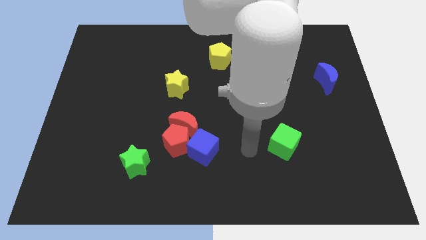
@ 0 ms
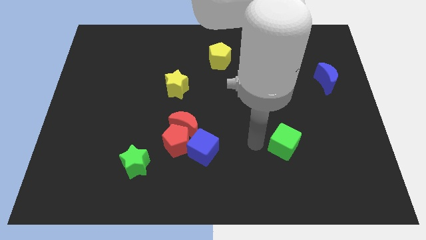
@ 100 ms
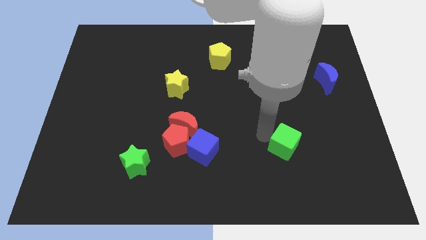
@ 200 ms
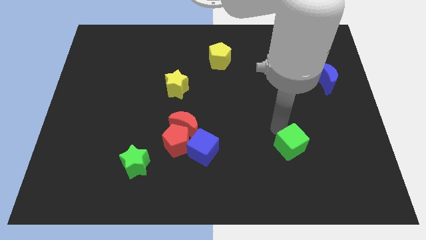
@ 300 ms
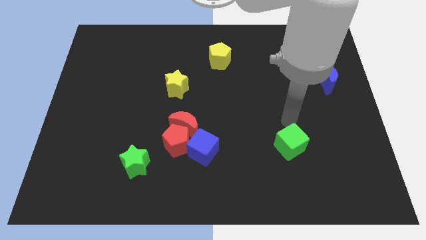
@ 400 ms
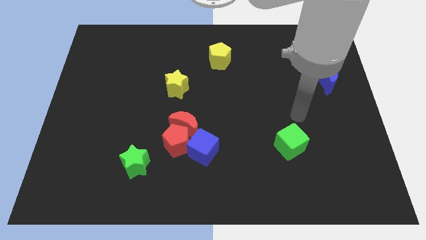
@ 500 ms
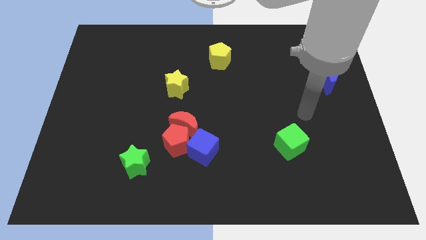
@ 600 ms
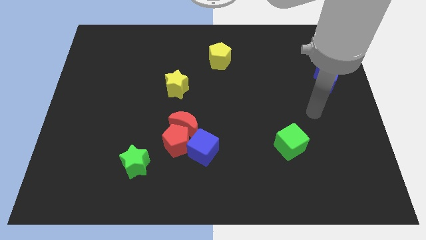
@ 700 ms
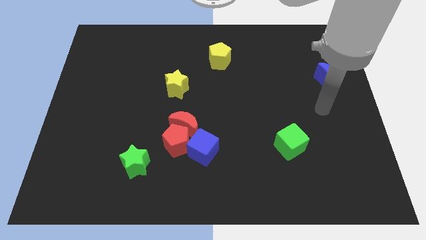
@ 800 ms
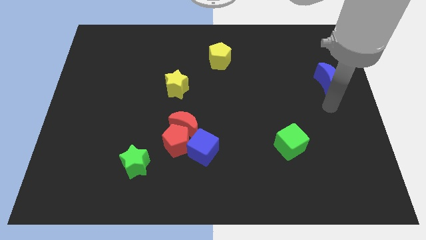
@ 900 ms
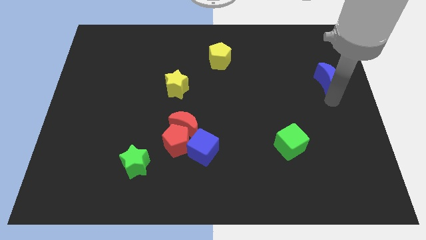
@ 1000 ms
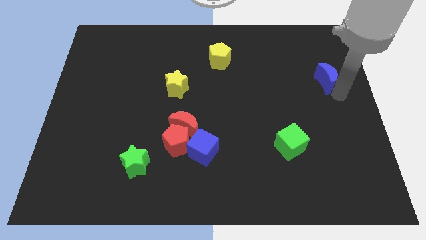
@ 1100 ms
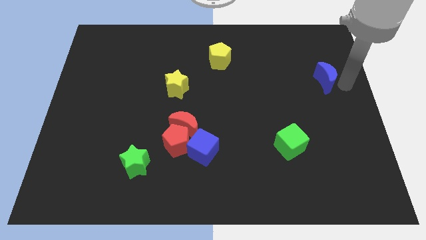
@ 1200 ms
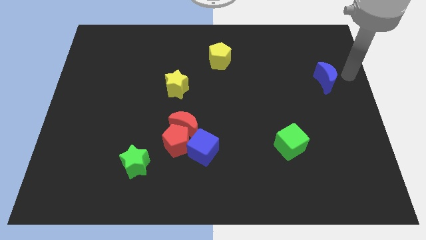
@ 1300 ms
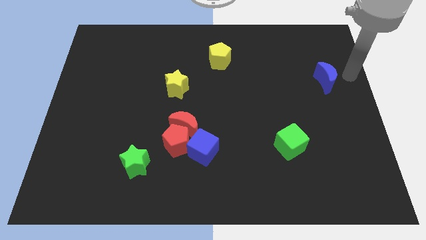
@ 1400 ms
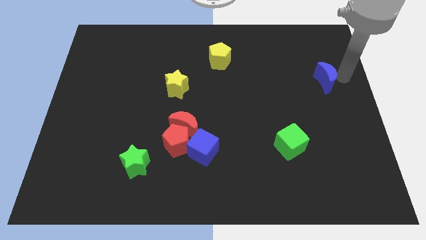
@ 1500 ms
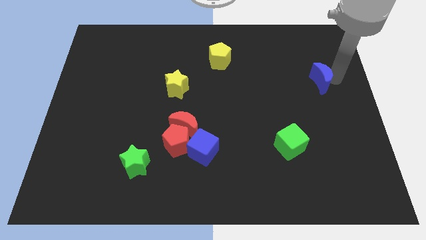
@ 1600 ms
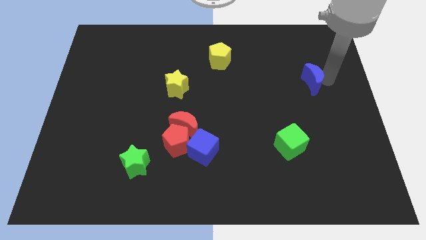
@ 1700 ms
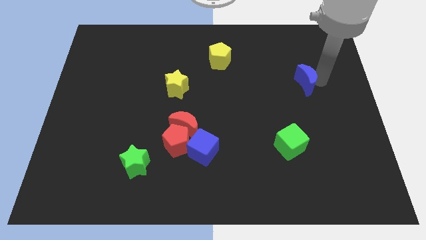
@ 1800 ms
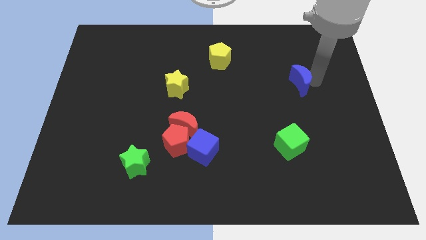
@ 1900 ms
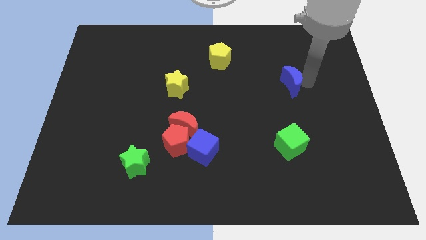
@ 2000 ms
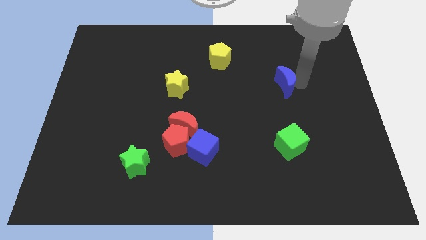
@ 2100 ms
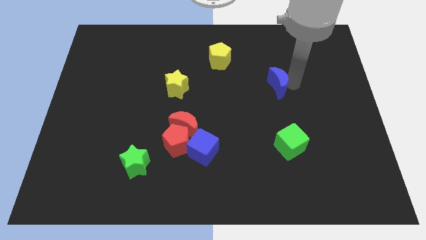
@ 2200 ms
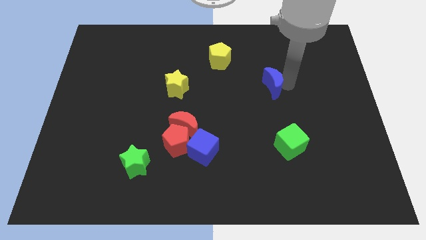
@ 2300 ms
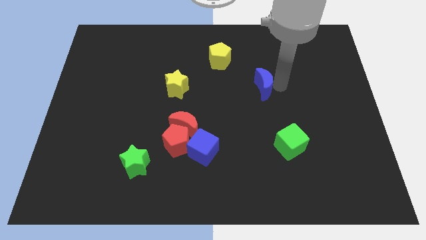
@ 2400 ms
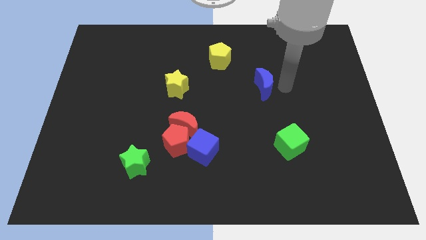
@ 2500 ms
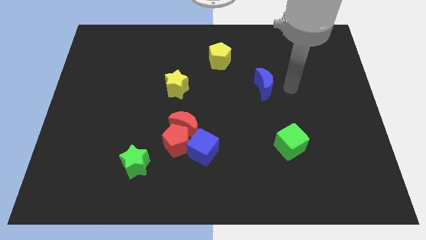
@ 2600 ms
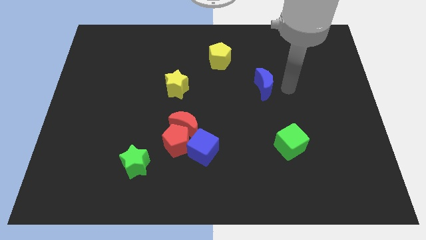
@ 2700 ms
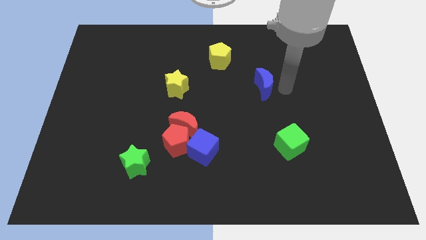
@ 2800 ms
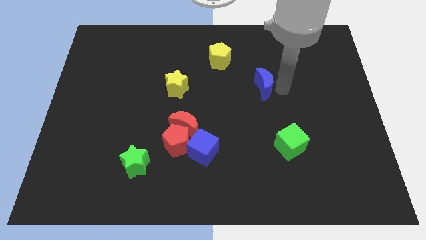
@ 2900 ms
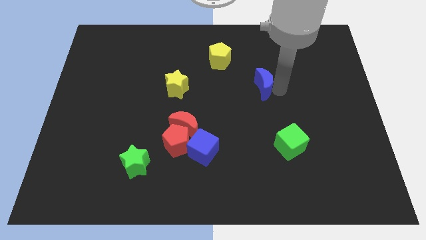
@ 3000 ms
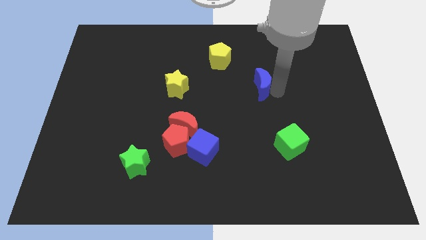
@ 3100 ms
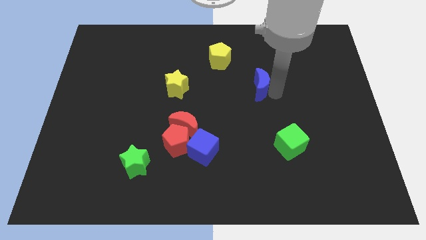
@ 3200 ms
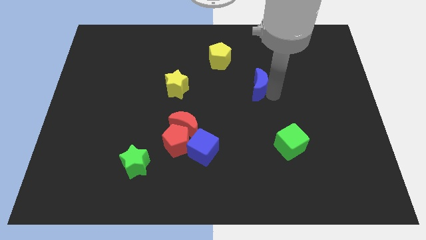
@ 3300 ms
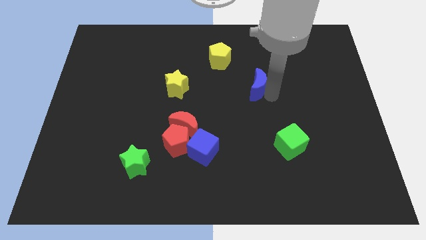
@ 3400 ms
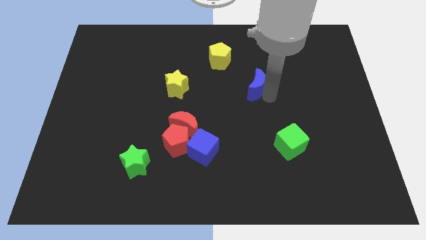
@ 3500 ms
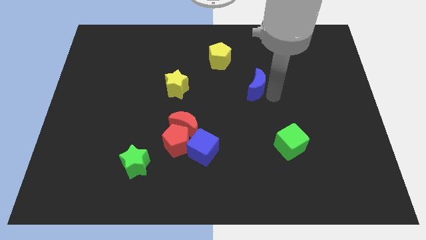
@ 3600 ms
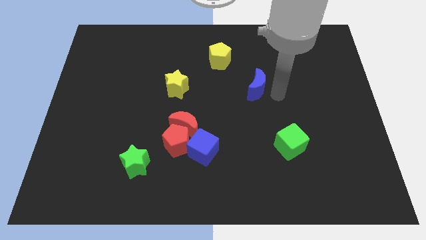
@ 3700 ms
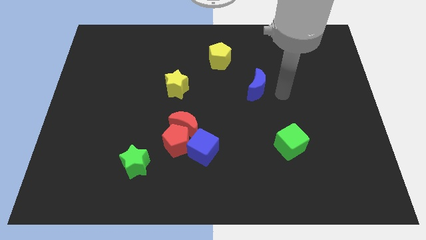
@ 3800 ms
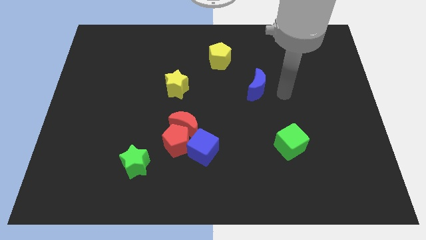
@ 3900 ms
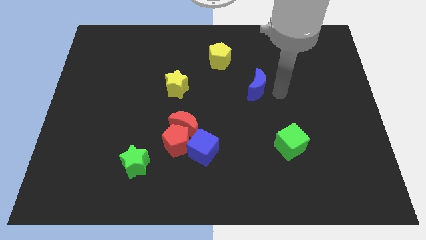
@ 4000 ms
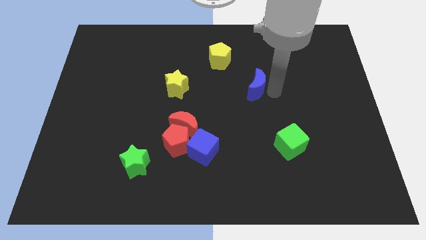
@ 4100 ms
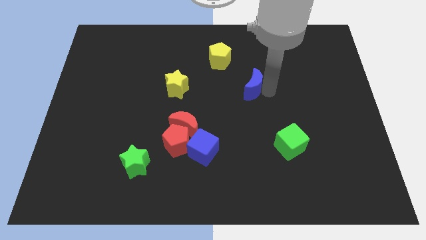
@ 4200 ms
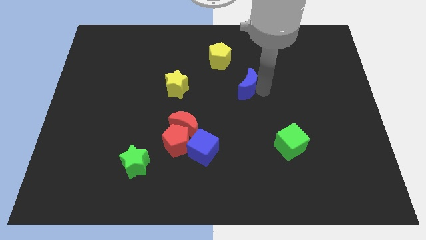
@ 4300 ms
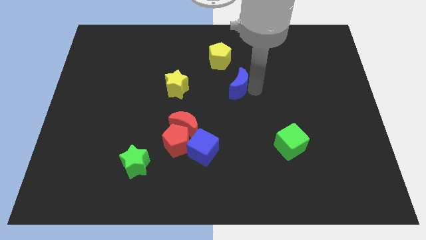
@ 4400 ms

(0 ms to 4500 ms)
slide the blue moon to the left

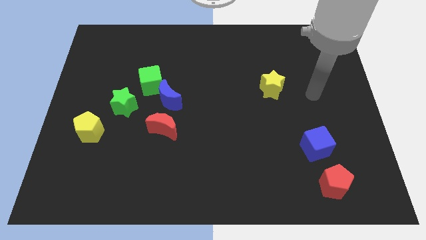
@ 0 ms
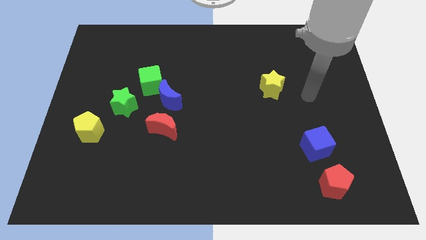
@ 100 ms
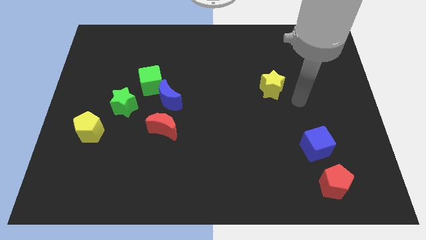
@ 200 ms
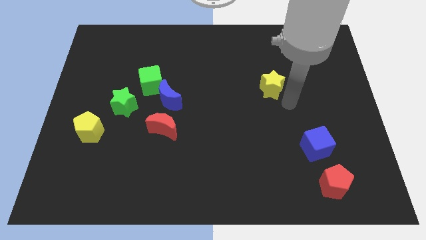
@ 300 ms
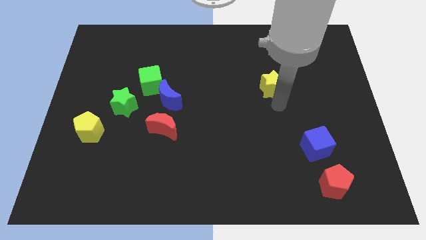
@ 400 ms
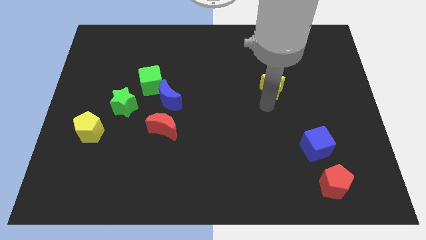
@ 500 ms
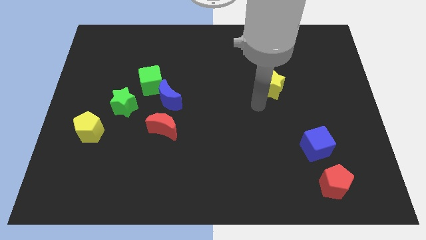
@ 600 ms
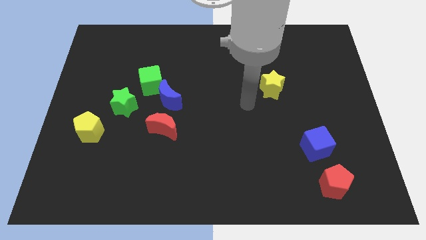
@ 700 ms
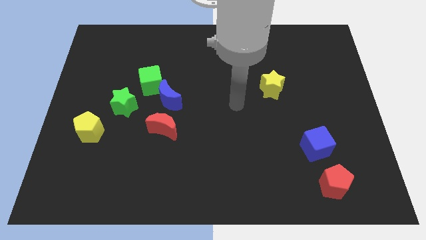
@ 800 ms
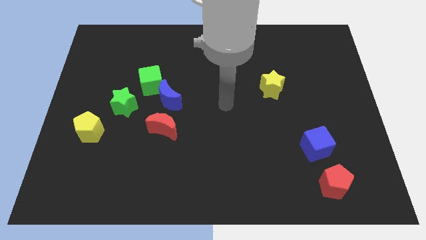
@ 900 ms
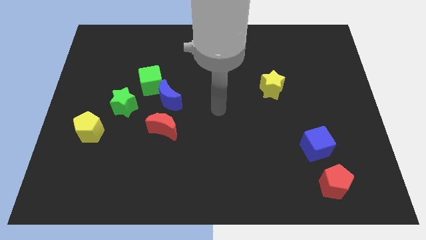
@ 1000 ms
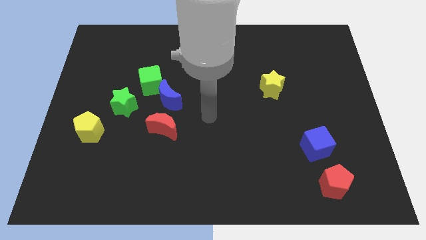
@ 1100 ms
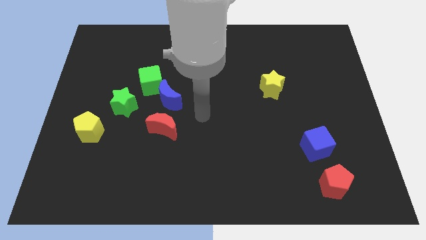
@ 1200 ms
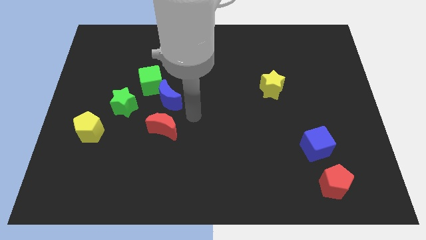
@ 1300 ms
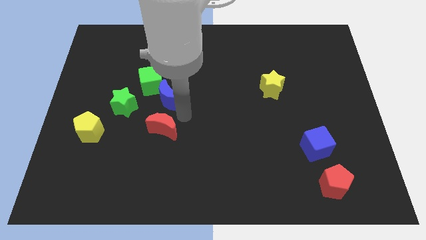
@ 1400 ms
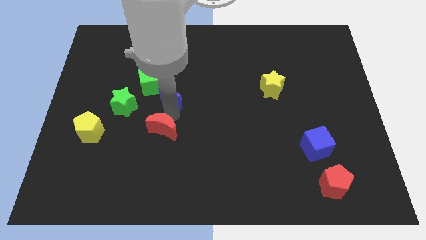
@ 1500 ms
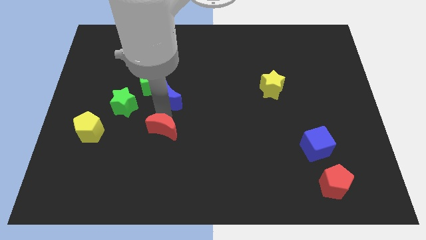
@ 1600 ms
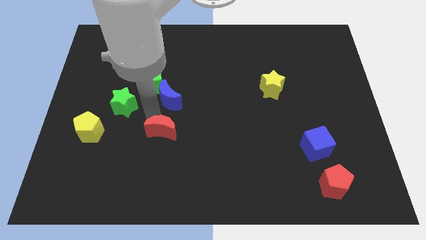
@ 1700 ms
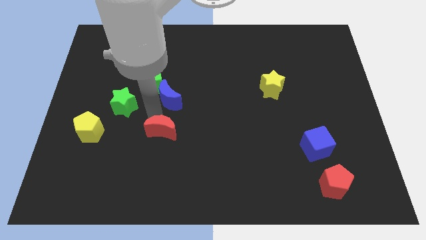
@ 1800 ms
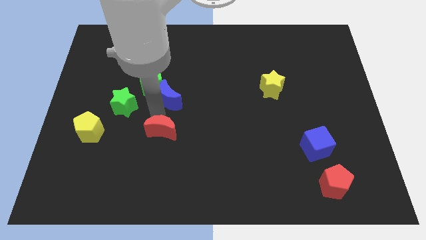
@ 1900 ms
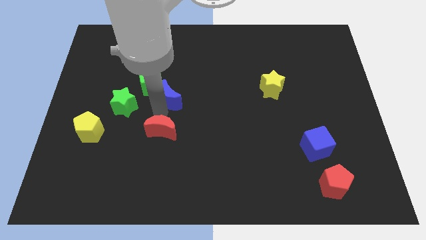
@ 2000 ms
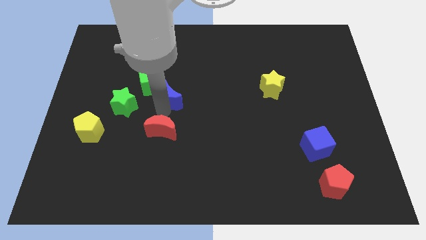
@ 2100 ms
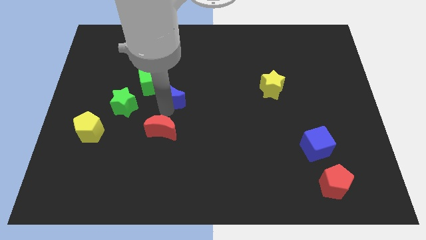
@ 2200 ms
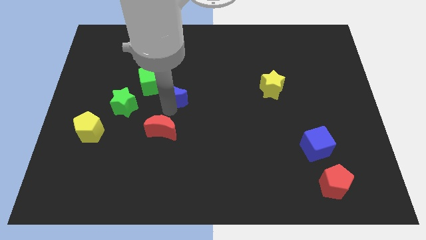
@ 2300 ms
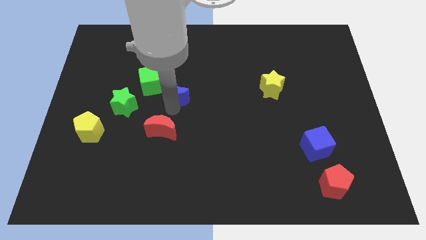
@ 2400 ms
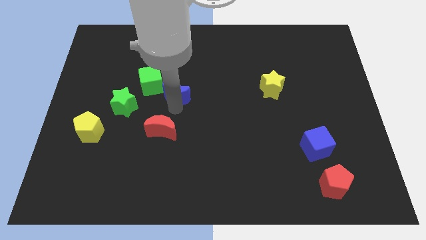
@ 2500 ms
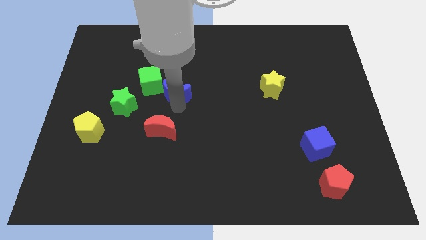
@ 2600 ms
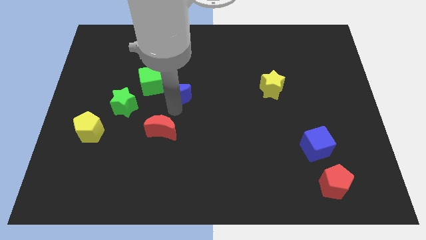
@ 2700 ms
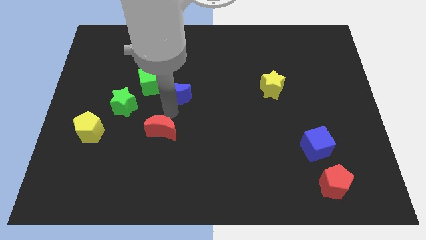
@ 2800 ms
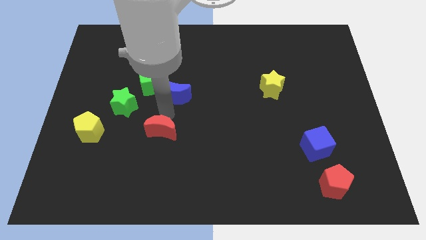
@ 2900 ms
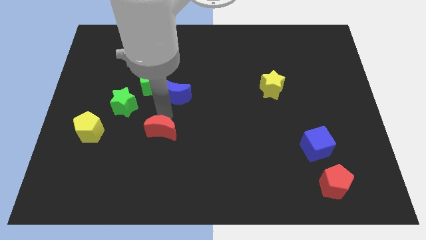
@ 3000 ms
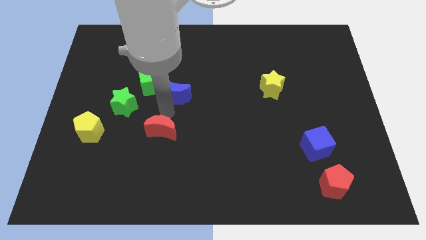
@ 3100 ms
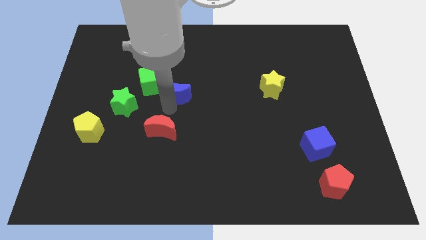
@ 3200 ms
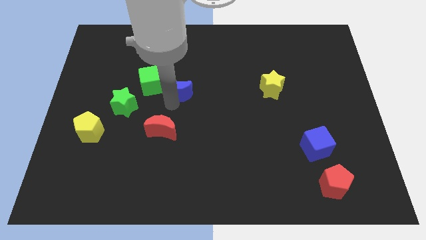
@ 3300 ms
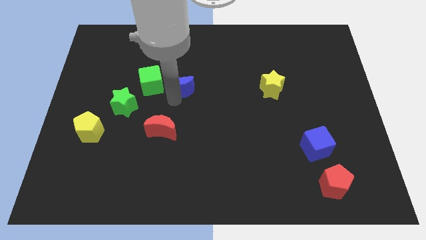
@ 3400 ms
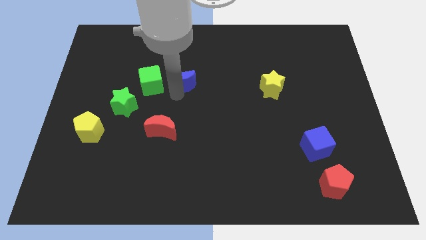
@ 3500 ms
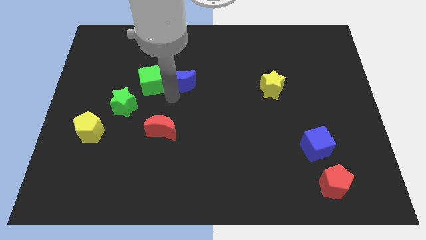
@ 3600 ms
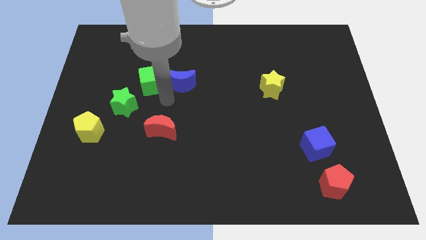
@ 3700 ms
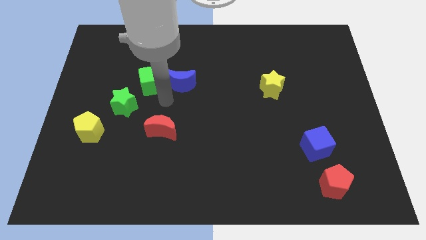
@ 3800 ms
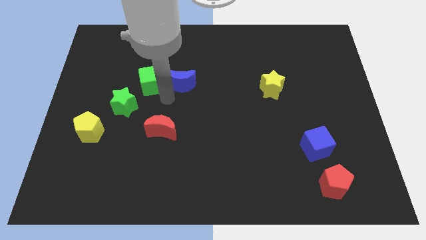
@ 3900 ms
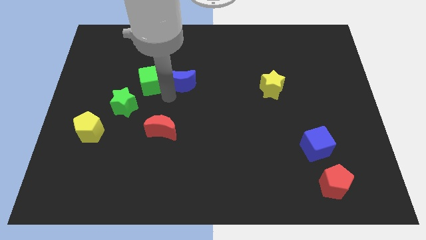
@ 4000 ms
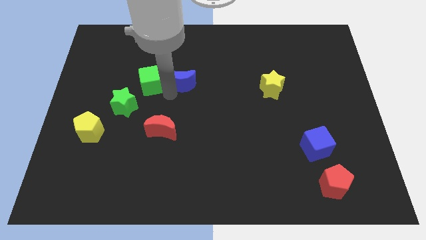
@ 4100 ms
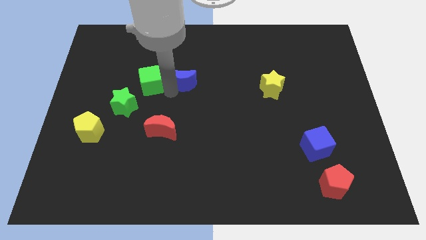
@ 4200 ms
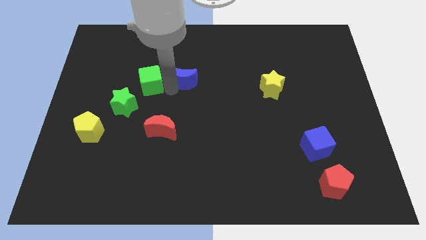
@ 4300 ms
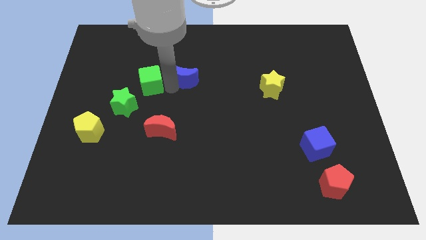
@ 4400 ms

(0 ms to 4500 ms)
push the blue moon a bit up and right
